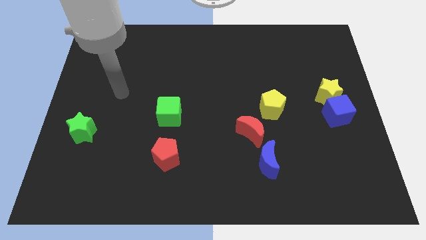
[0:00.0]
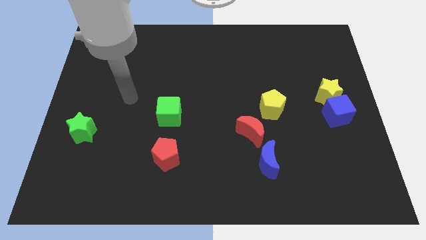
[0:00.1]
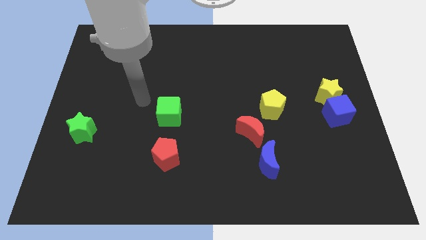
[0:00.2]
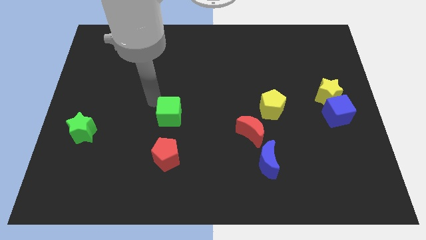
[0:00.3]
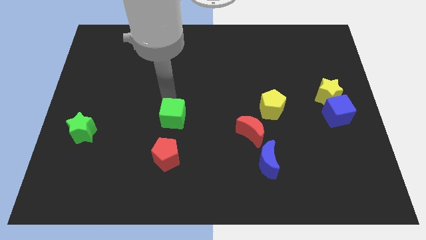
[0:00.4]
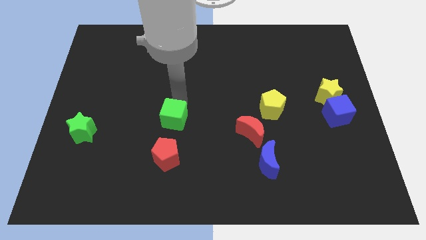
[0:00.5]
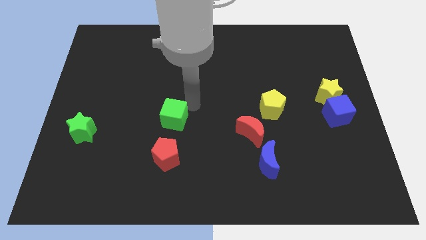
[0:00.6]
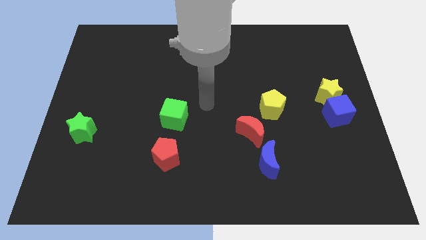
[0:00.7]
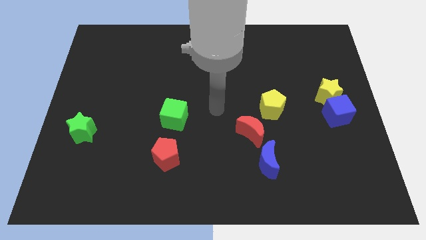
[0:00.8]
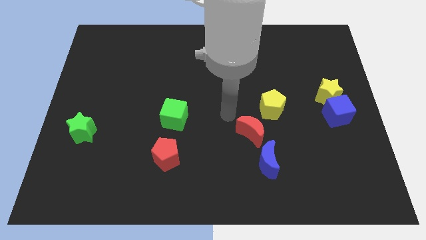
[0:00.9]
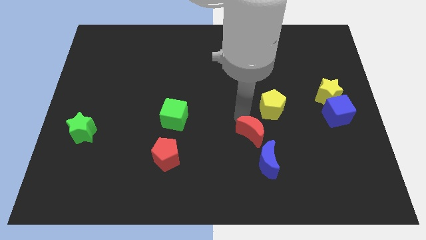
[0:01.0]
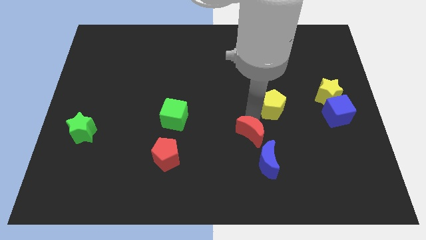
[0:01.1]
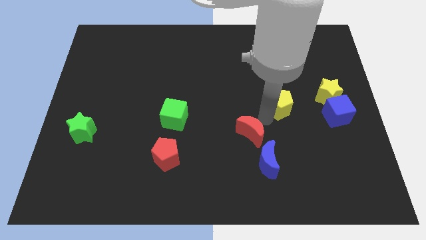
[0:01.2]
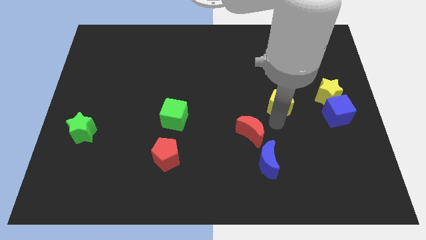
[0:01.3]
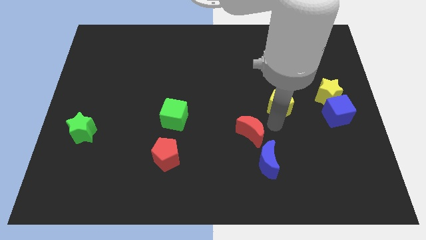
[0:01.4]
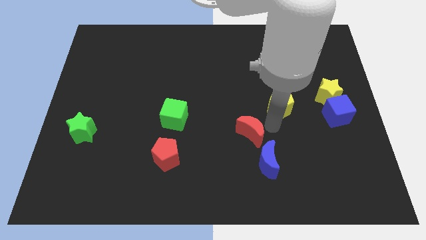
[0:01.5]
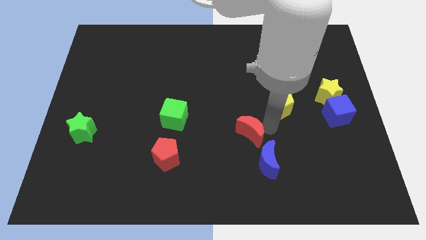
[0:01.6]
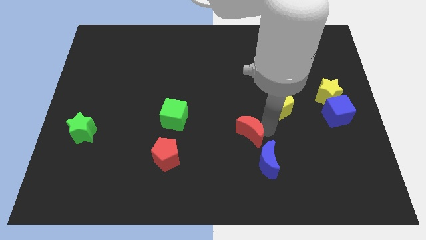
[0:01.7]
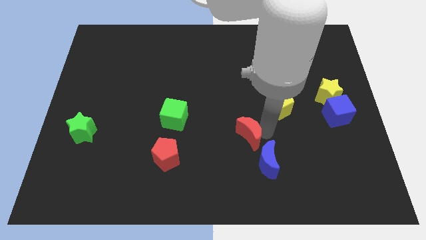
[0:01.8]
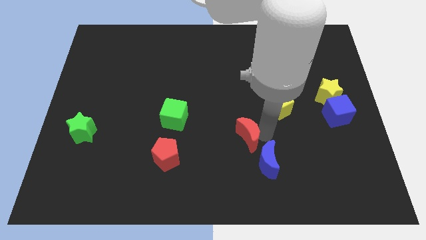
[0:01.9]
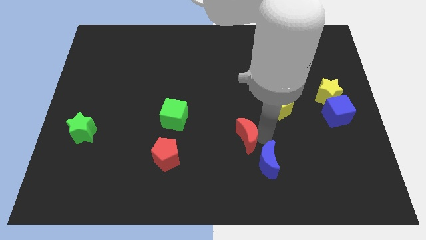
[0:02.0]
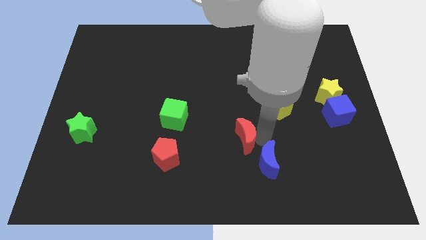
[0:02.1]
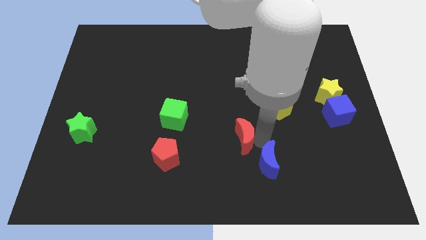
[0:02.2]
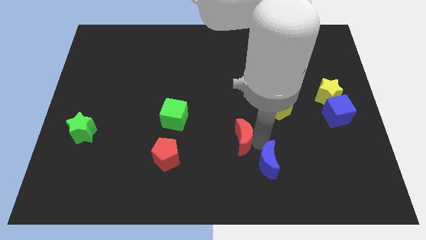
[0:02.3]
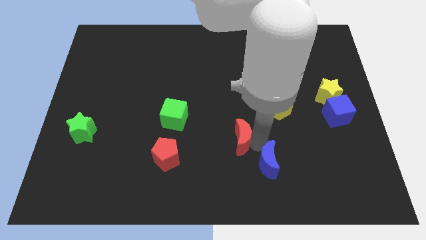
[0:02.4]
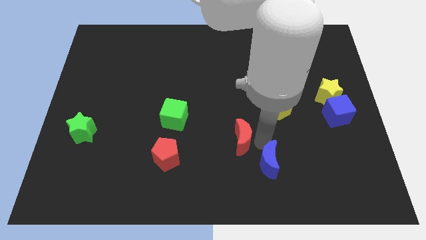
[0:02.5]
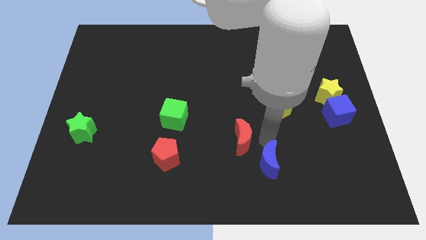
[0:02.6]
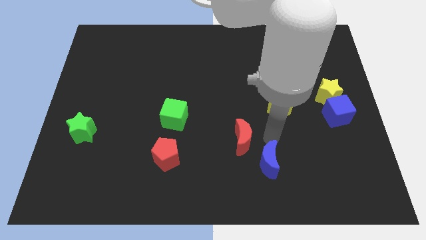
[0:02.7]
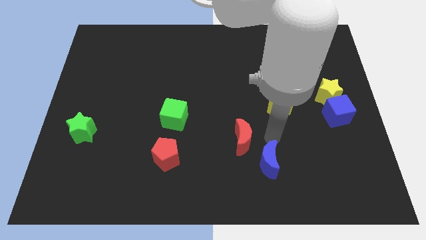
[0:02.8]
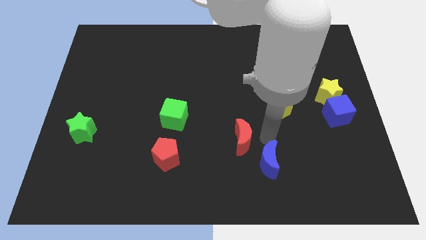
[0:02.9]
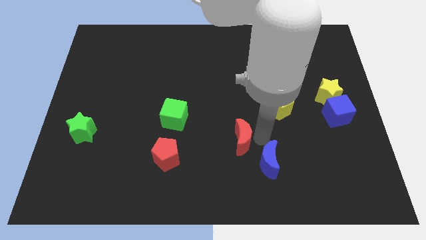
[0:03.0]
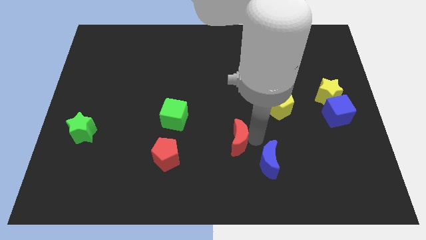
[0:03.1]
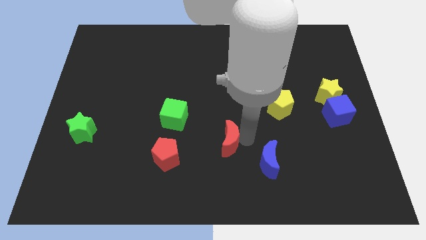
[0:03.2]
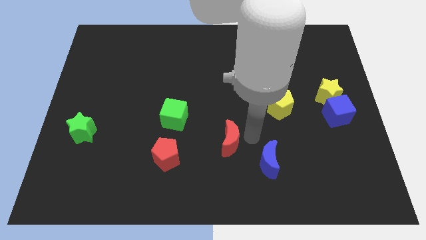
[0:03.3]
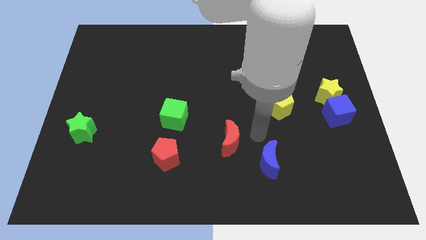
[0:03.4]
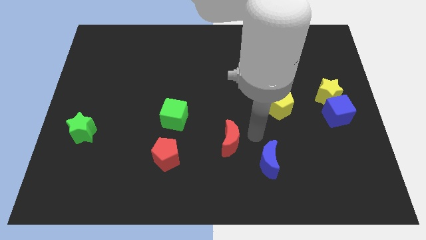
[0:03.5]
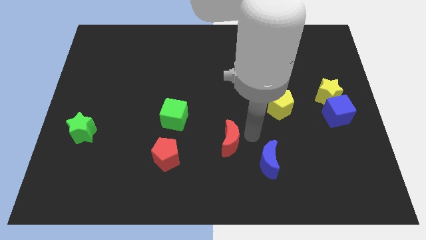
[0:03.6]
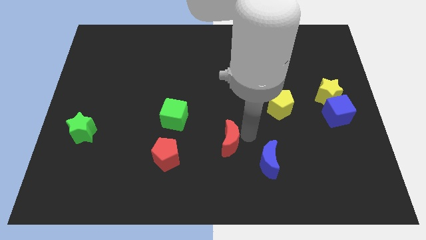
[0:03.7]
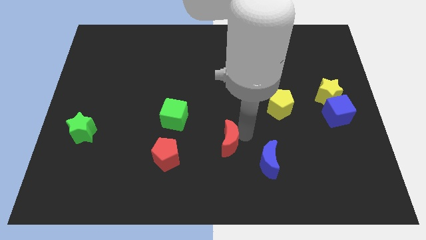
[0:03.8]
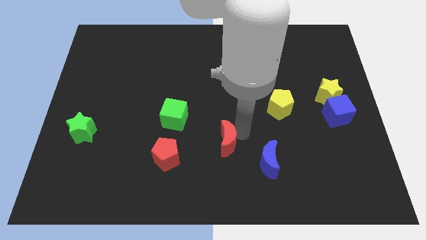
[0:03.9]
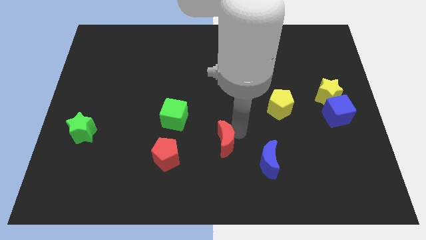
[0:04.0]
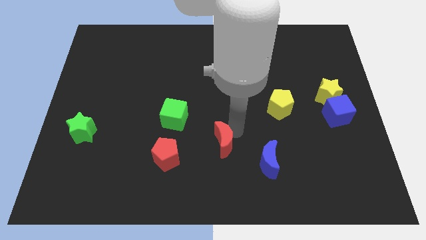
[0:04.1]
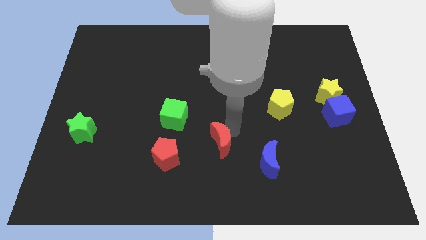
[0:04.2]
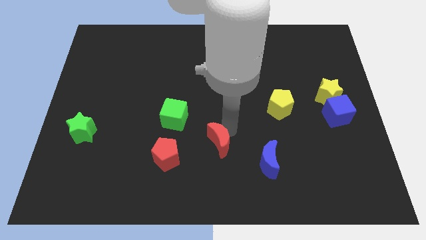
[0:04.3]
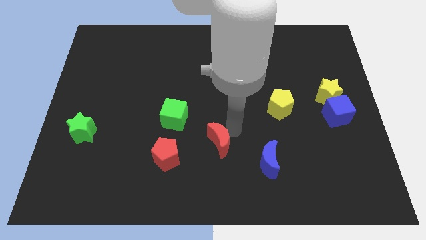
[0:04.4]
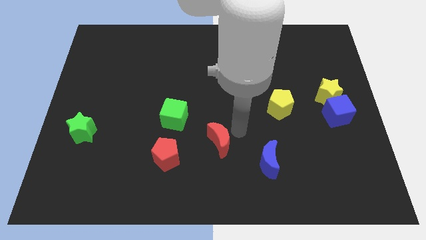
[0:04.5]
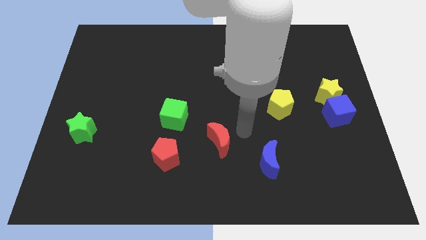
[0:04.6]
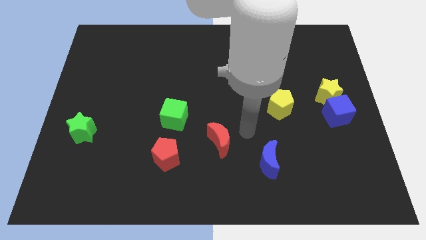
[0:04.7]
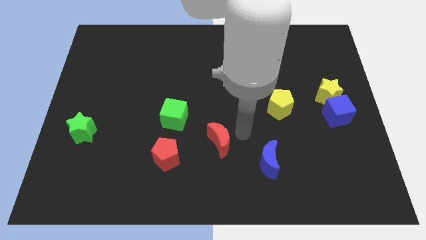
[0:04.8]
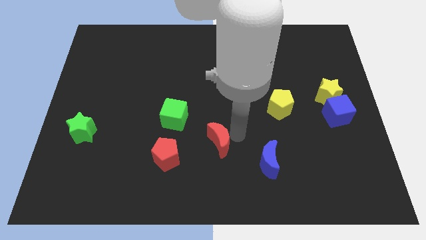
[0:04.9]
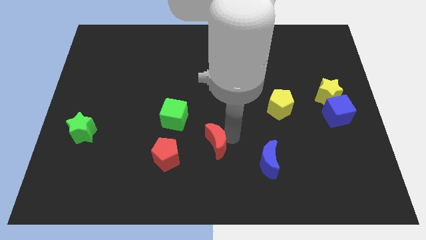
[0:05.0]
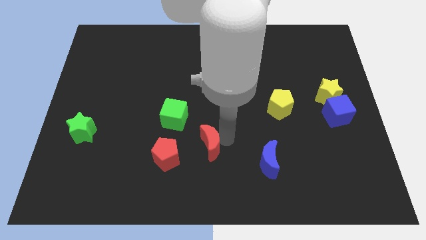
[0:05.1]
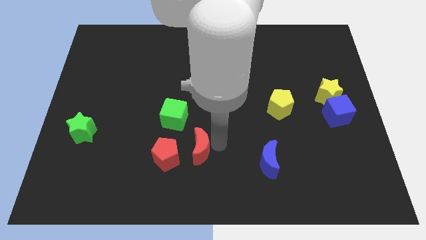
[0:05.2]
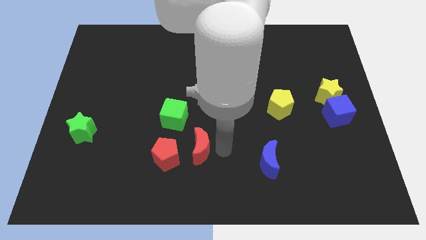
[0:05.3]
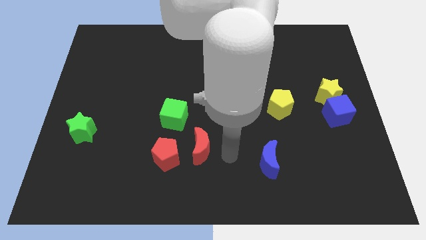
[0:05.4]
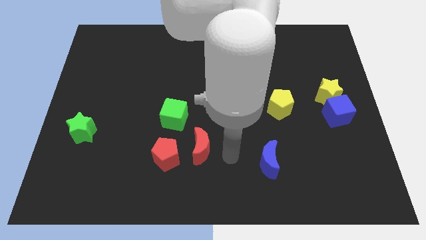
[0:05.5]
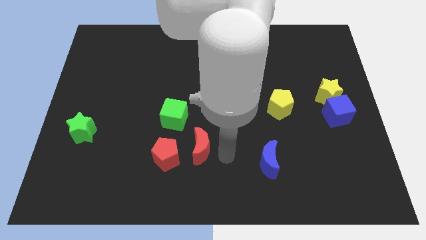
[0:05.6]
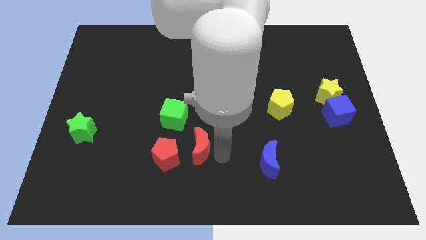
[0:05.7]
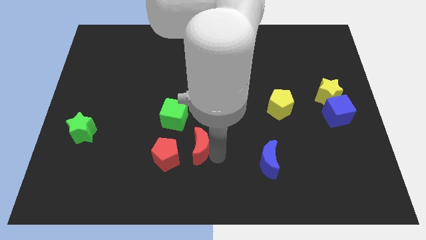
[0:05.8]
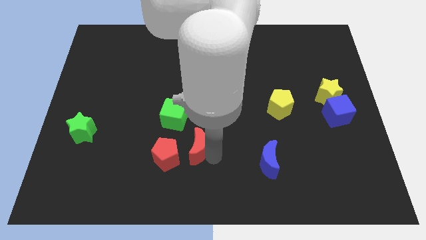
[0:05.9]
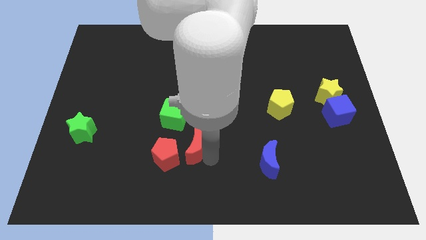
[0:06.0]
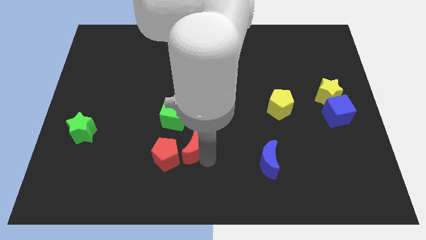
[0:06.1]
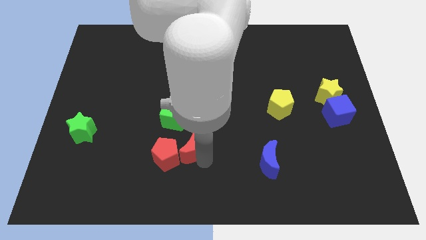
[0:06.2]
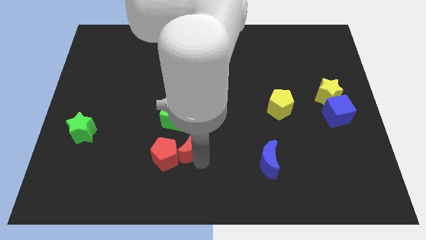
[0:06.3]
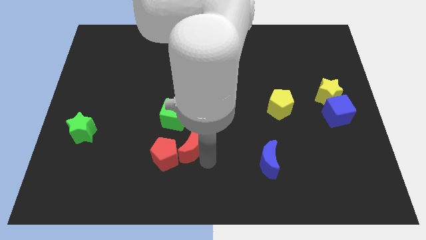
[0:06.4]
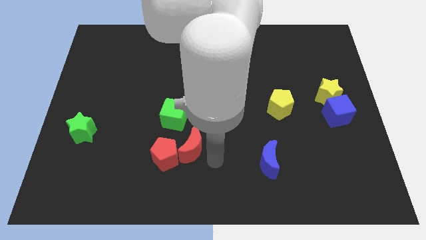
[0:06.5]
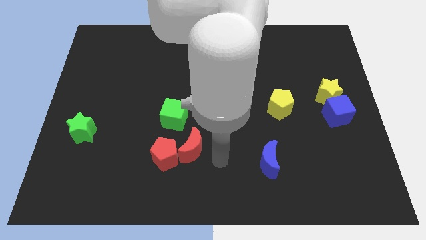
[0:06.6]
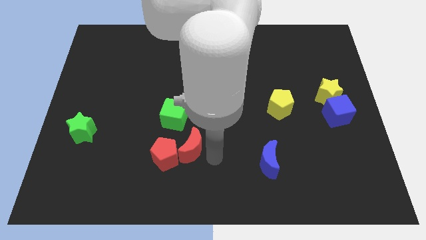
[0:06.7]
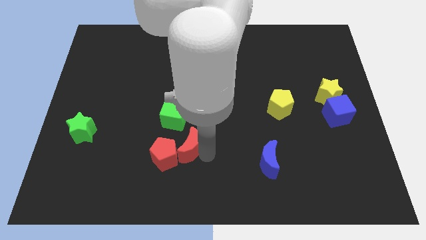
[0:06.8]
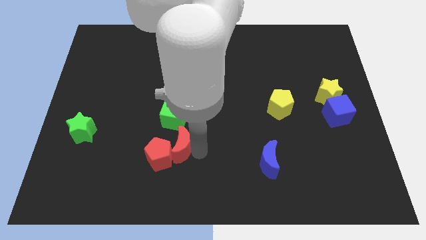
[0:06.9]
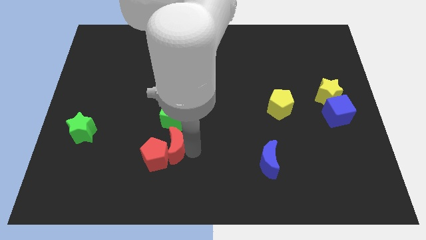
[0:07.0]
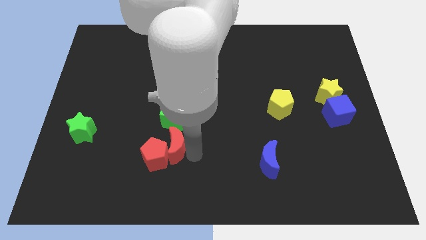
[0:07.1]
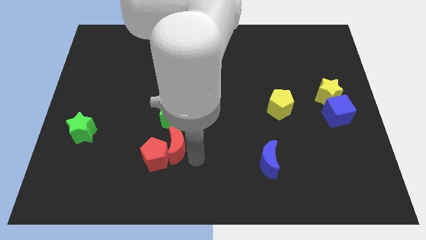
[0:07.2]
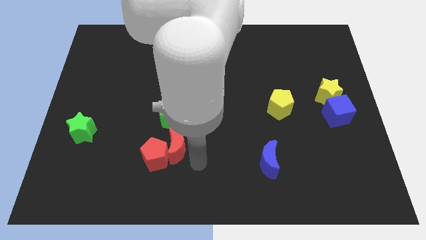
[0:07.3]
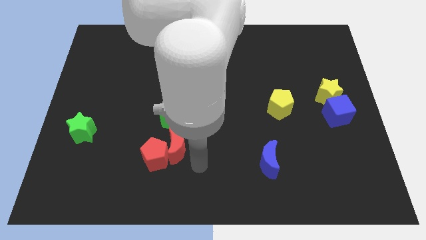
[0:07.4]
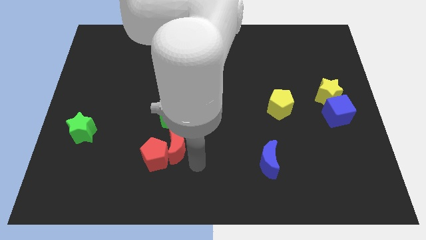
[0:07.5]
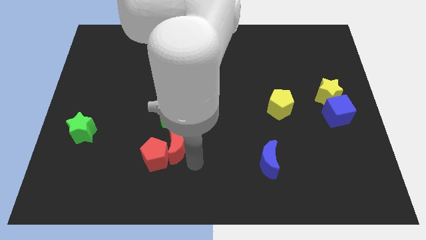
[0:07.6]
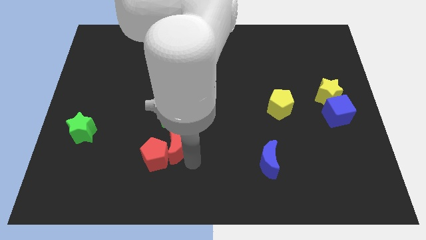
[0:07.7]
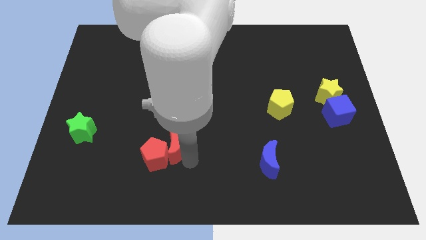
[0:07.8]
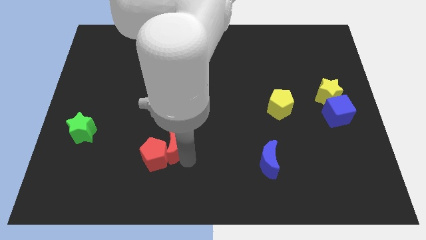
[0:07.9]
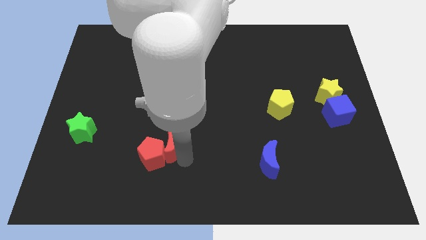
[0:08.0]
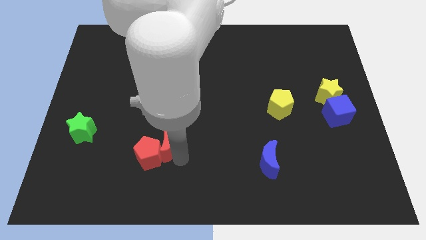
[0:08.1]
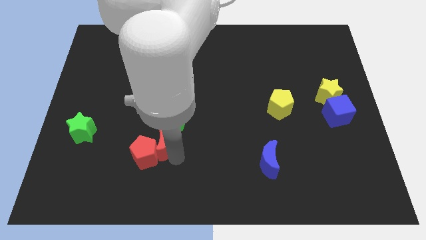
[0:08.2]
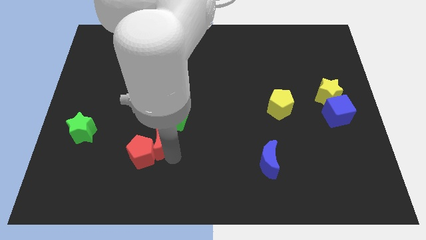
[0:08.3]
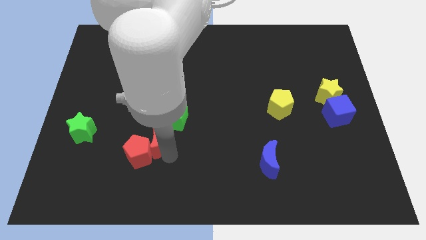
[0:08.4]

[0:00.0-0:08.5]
slide the red moon left
